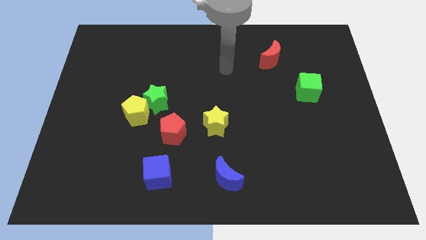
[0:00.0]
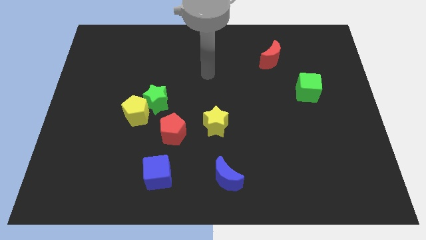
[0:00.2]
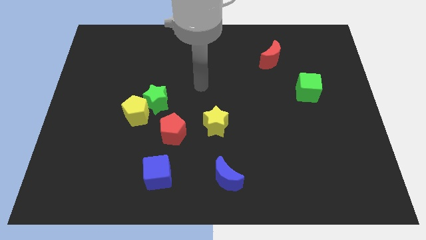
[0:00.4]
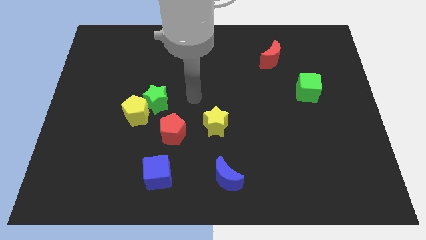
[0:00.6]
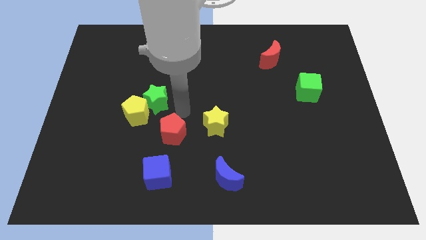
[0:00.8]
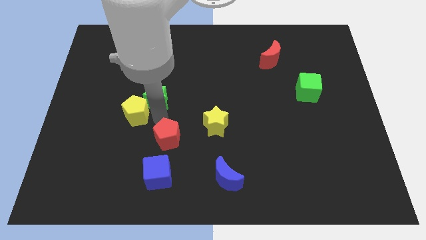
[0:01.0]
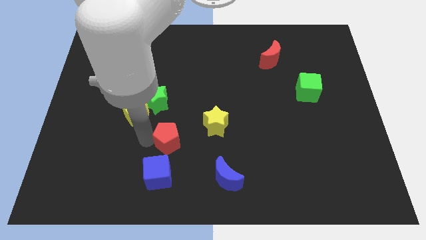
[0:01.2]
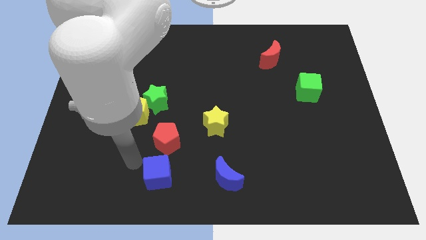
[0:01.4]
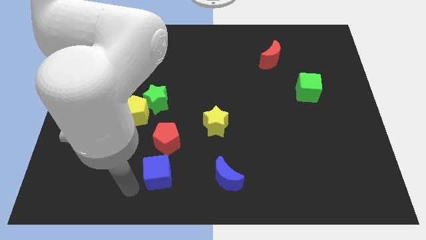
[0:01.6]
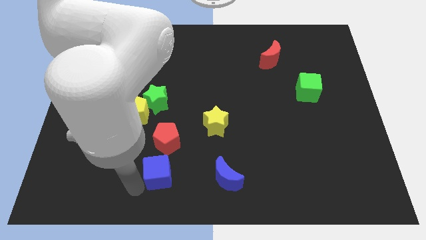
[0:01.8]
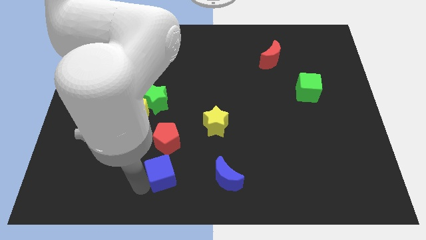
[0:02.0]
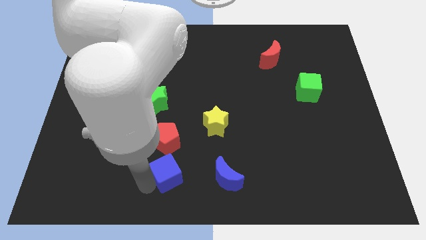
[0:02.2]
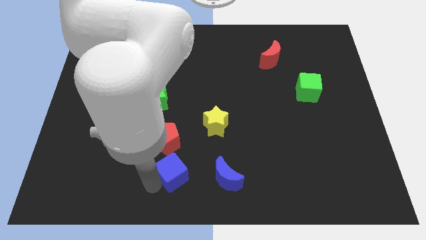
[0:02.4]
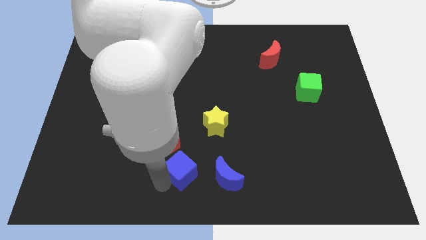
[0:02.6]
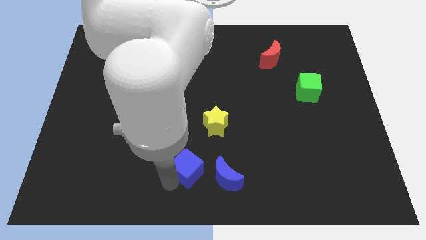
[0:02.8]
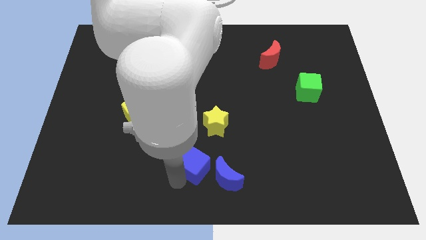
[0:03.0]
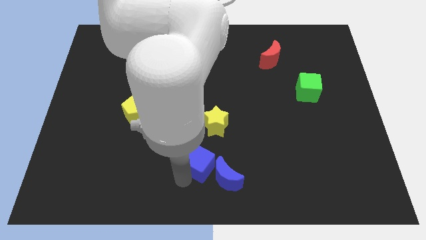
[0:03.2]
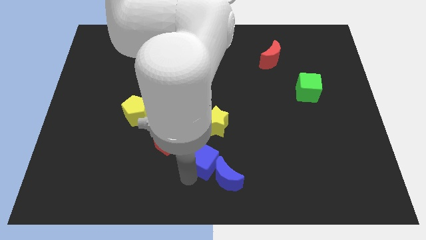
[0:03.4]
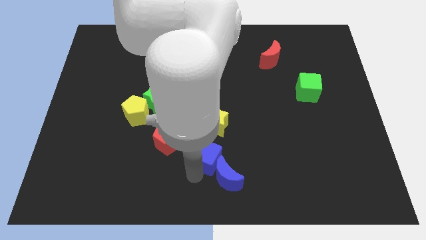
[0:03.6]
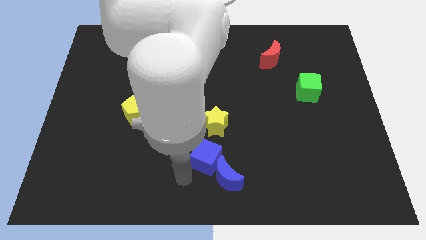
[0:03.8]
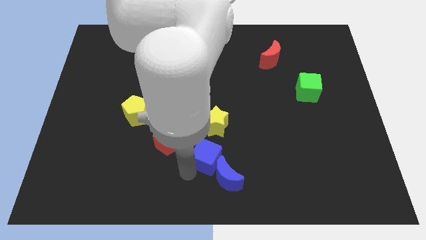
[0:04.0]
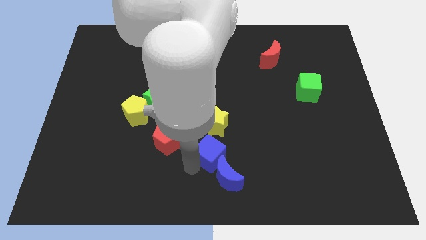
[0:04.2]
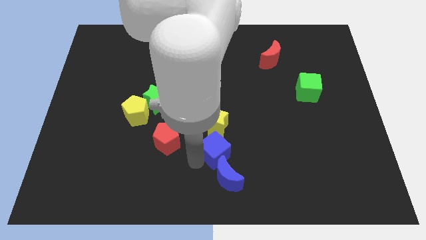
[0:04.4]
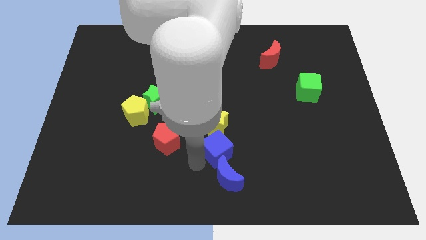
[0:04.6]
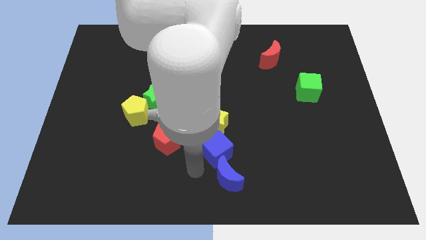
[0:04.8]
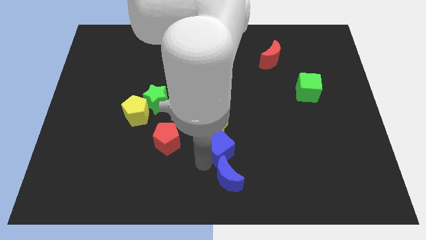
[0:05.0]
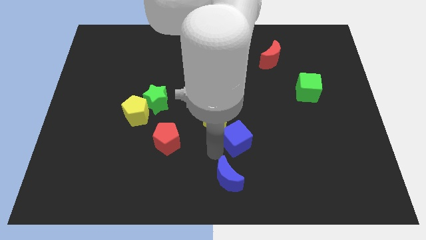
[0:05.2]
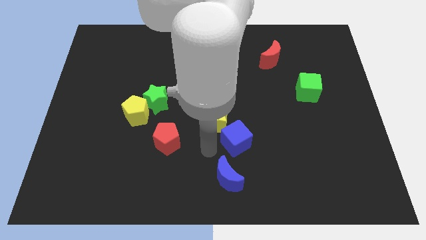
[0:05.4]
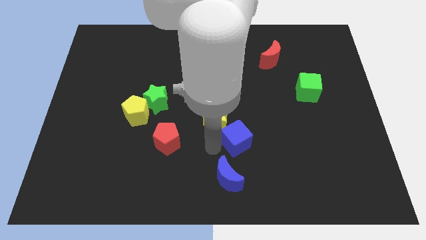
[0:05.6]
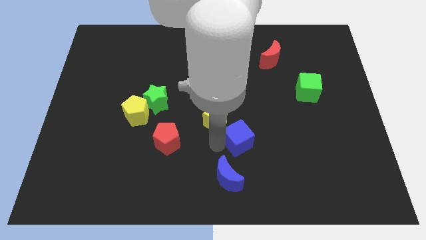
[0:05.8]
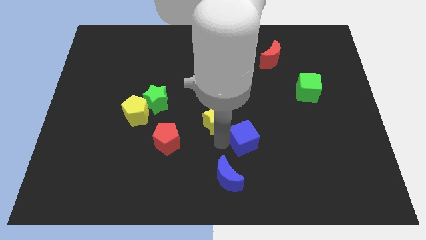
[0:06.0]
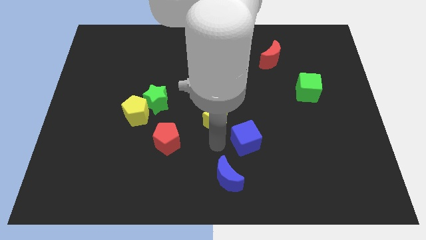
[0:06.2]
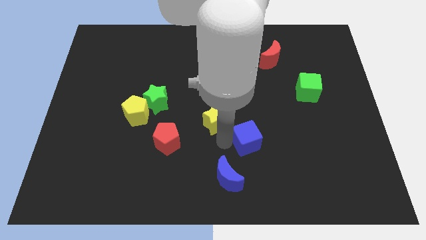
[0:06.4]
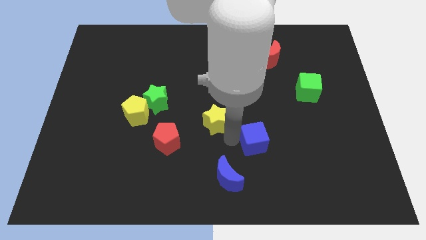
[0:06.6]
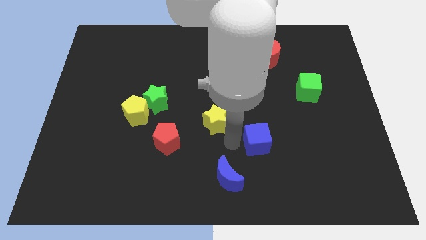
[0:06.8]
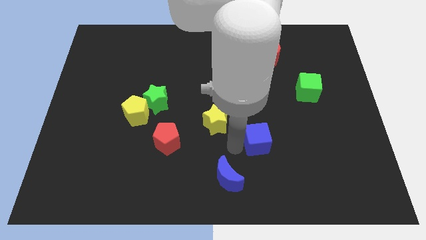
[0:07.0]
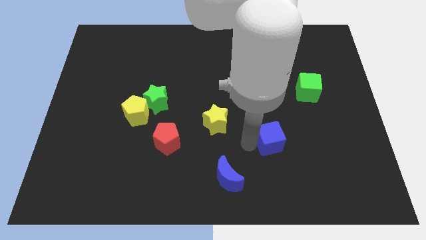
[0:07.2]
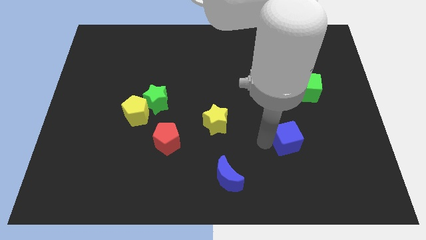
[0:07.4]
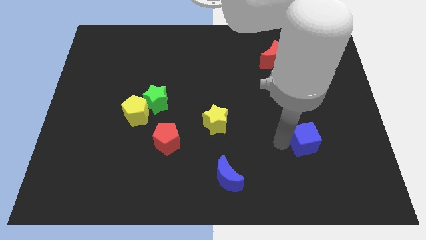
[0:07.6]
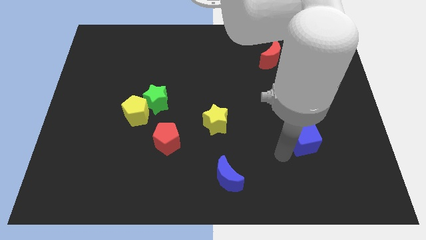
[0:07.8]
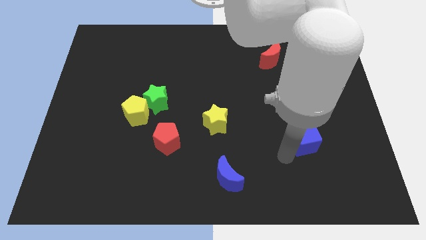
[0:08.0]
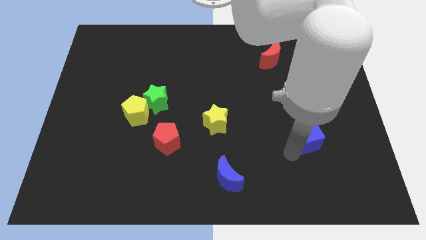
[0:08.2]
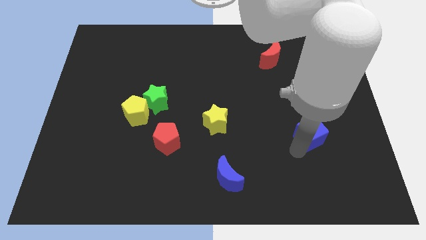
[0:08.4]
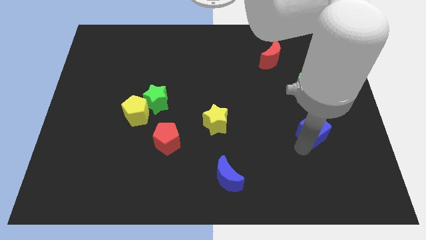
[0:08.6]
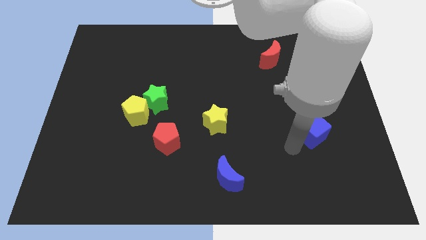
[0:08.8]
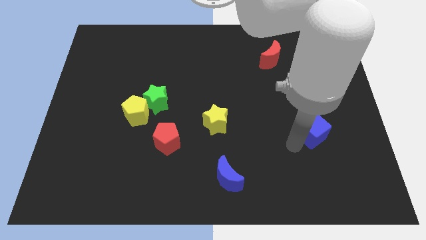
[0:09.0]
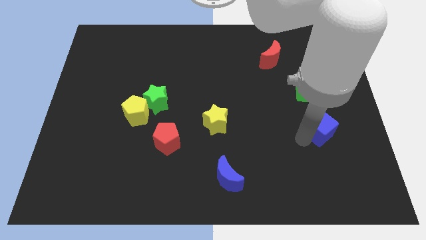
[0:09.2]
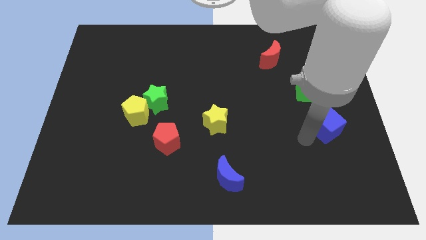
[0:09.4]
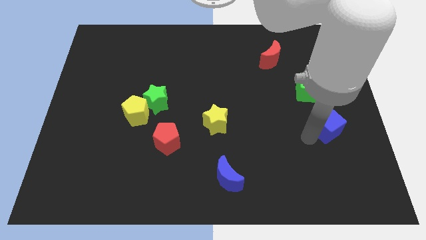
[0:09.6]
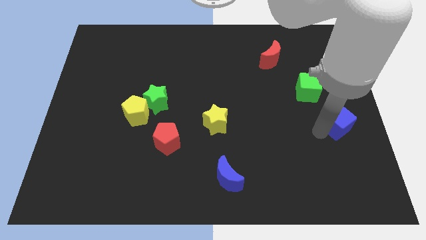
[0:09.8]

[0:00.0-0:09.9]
put the blue cube to the center right

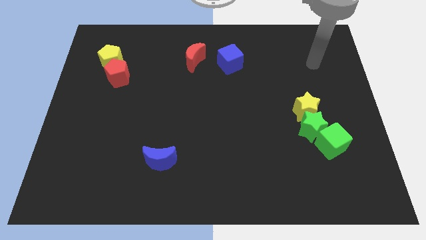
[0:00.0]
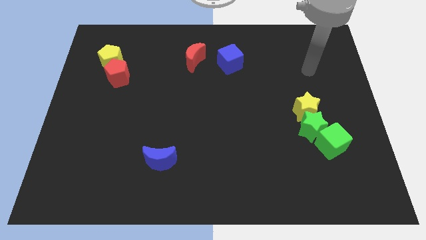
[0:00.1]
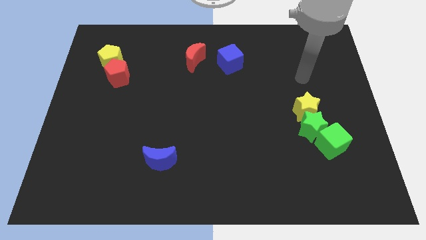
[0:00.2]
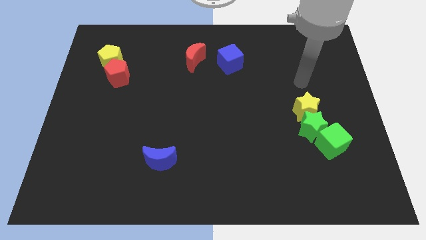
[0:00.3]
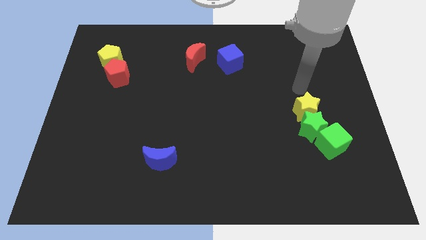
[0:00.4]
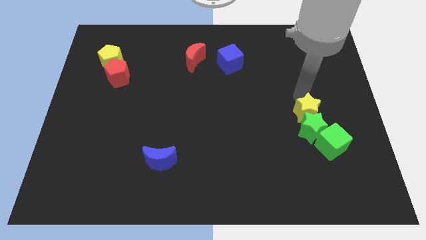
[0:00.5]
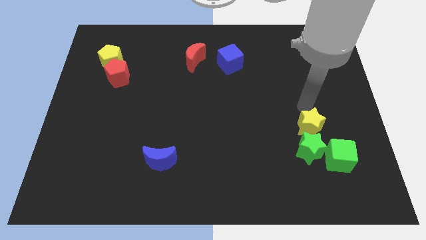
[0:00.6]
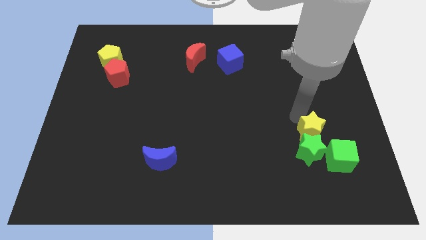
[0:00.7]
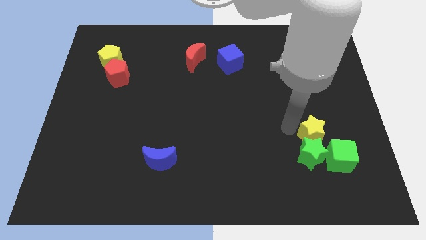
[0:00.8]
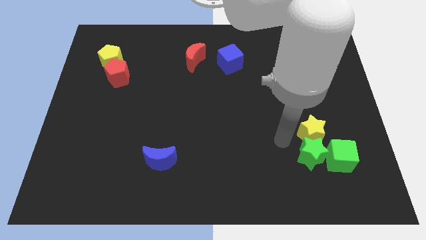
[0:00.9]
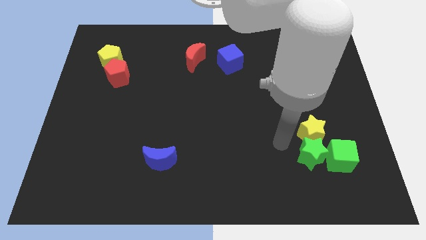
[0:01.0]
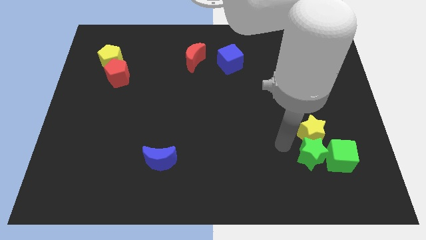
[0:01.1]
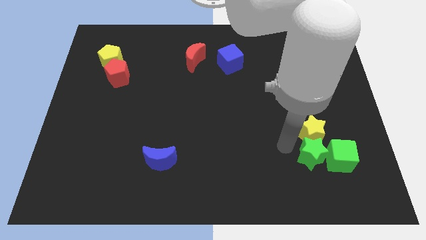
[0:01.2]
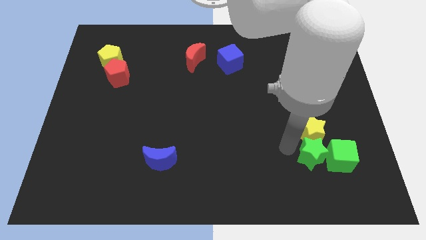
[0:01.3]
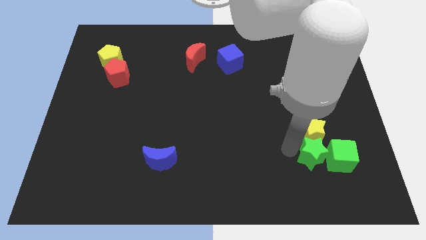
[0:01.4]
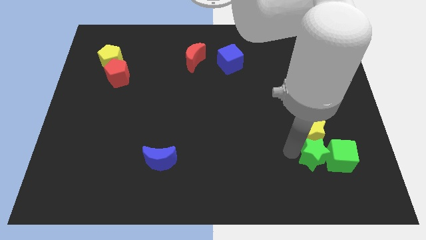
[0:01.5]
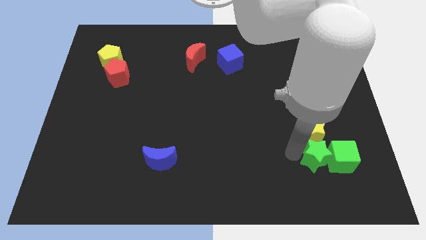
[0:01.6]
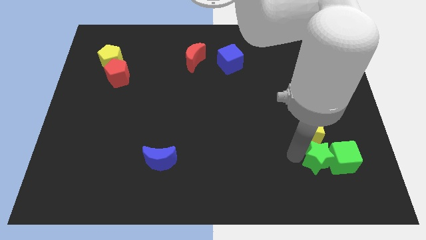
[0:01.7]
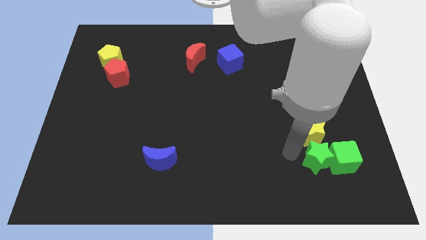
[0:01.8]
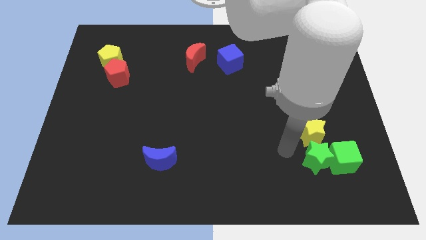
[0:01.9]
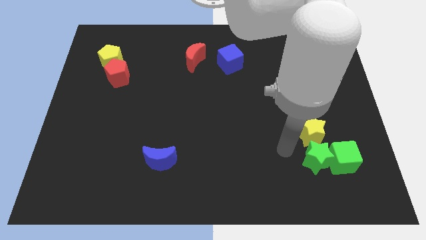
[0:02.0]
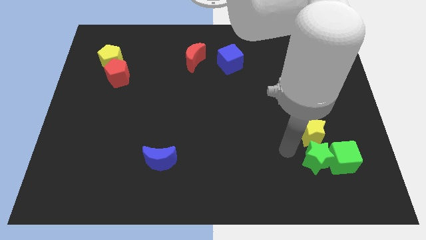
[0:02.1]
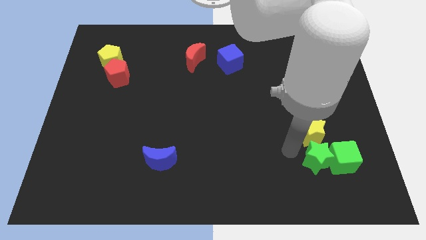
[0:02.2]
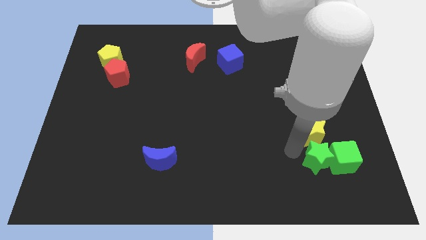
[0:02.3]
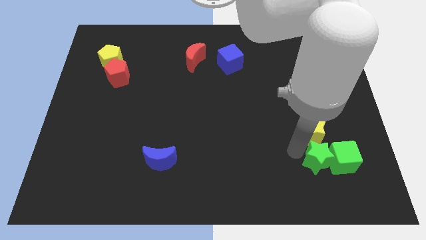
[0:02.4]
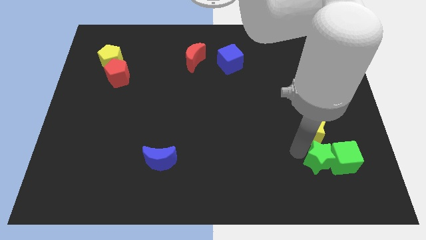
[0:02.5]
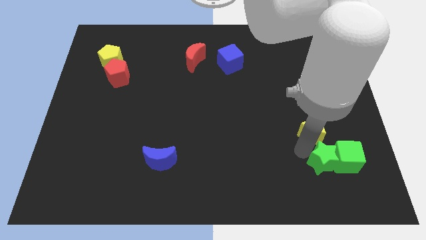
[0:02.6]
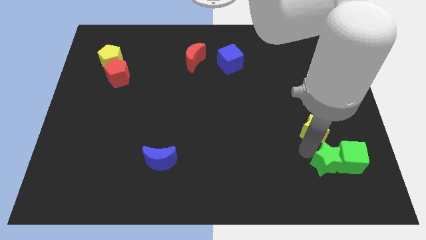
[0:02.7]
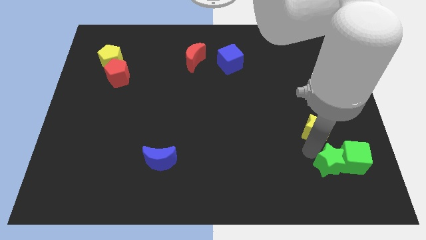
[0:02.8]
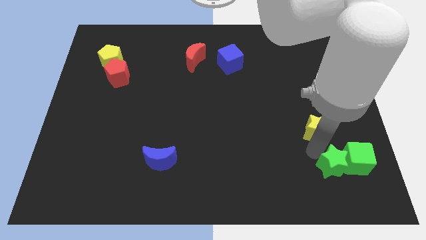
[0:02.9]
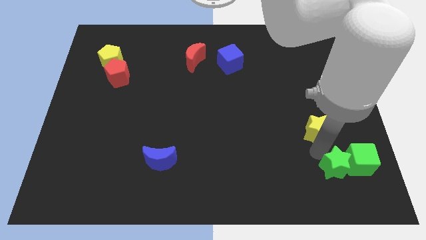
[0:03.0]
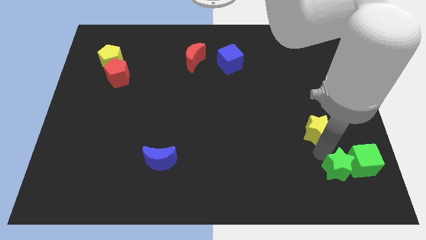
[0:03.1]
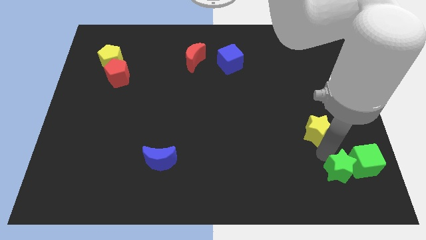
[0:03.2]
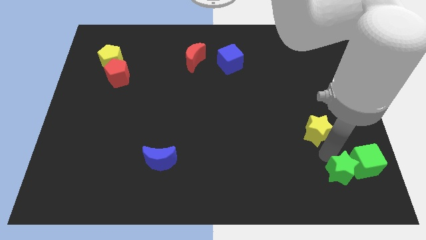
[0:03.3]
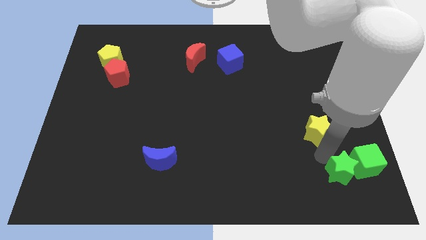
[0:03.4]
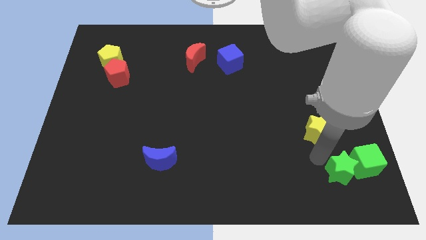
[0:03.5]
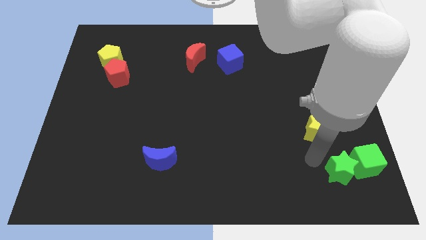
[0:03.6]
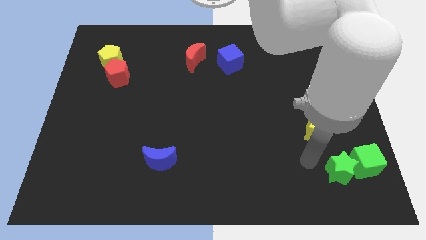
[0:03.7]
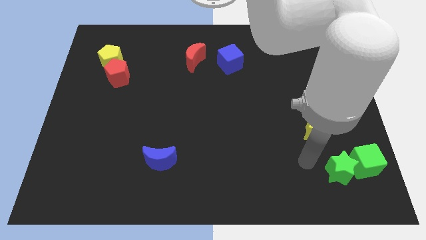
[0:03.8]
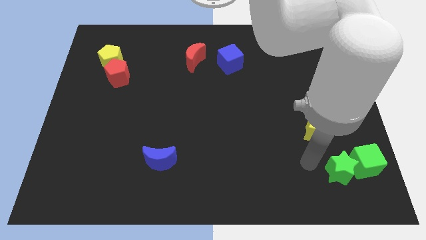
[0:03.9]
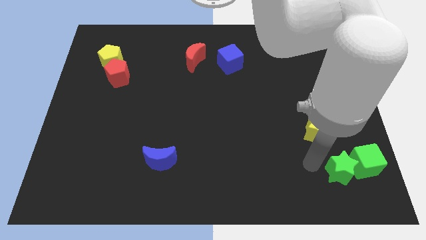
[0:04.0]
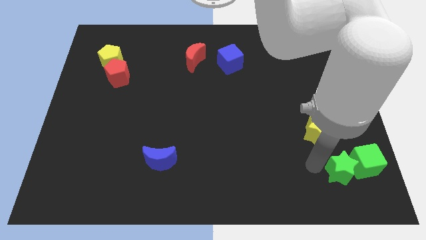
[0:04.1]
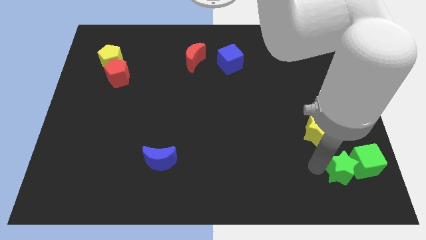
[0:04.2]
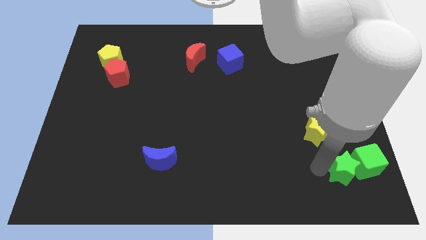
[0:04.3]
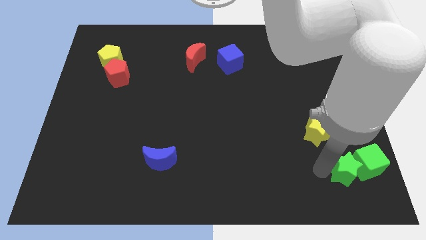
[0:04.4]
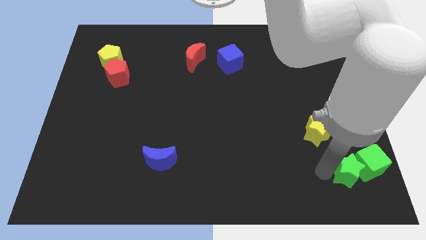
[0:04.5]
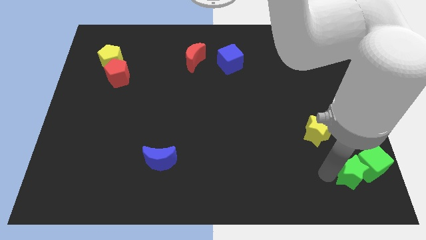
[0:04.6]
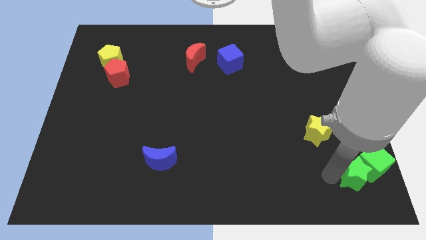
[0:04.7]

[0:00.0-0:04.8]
put the green star to the lower right corner
